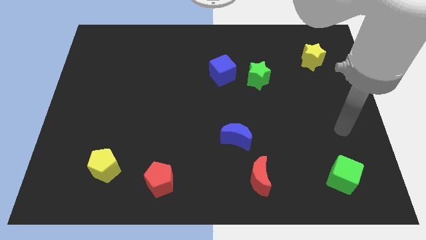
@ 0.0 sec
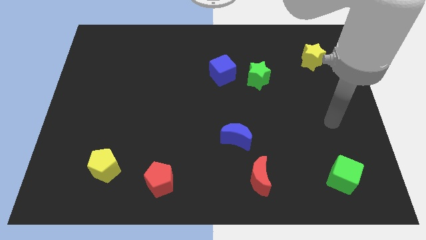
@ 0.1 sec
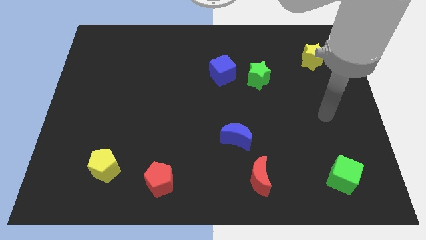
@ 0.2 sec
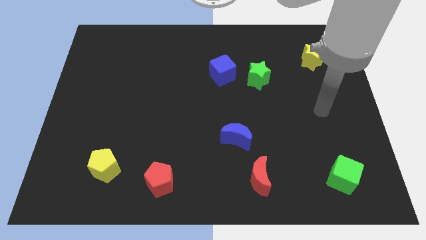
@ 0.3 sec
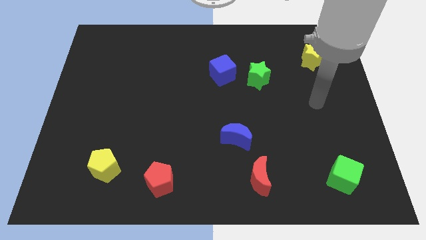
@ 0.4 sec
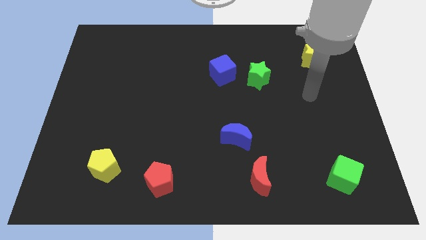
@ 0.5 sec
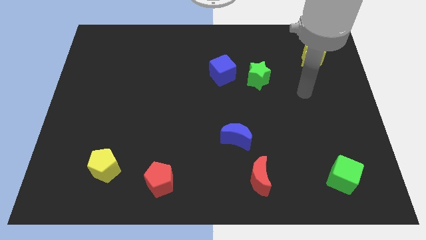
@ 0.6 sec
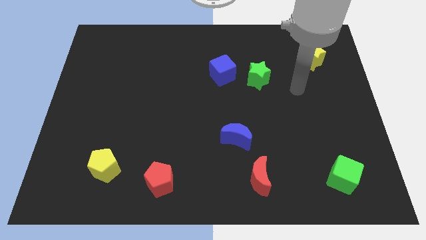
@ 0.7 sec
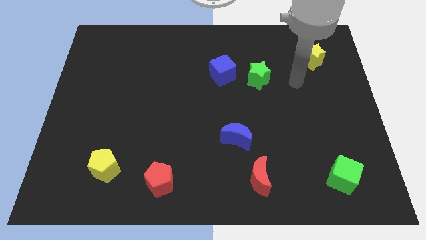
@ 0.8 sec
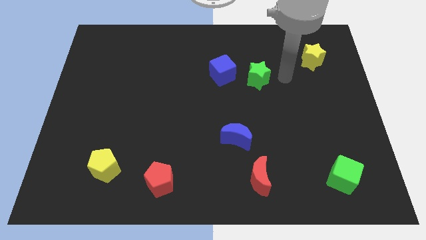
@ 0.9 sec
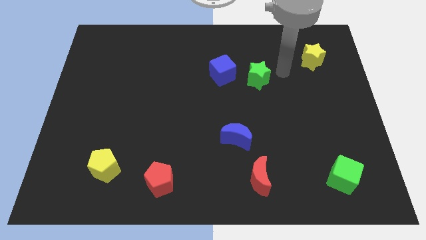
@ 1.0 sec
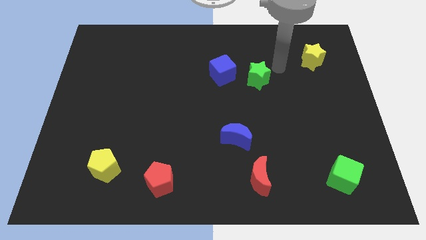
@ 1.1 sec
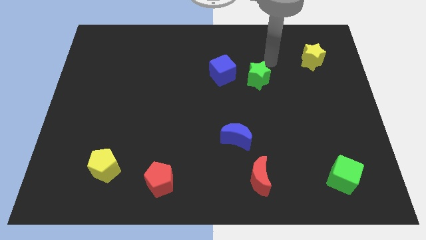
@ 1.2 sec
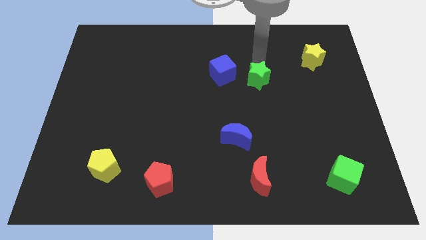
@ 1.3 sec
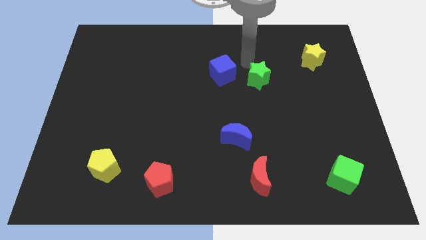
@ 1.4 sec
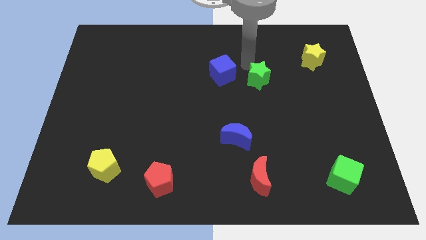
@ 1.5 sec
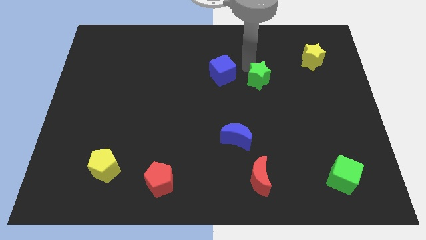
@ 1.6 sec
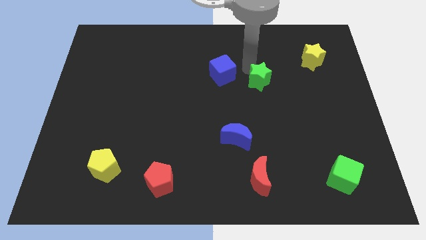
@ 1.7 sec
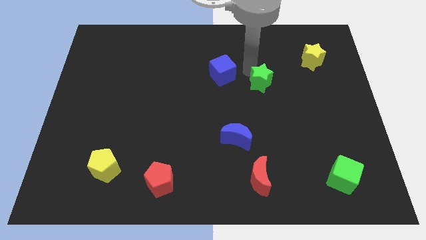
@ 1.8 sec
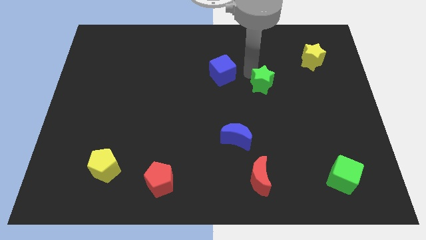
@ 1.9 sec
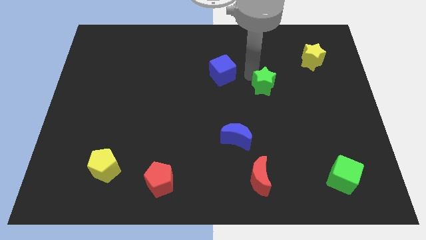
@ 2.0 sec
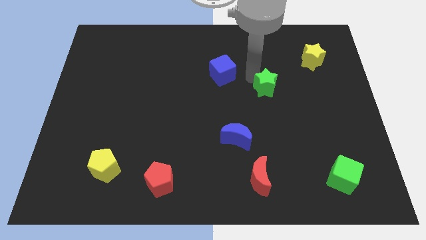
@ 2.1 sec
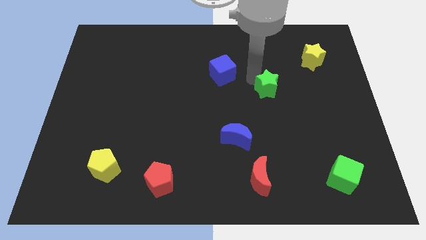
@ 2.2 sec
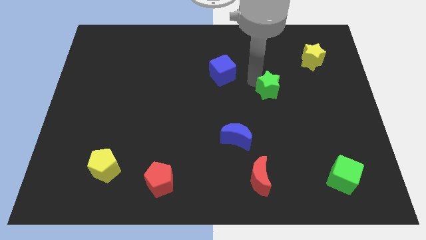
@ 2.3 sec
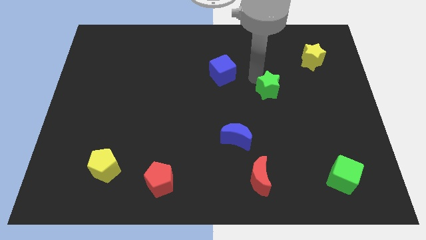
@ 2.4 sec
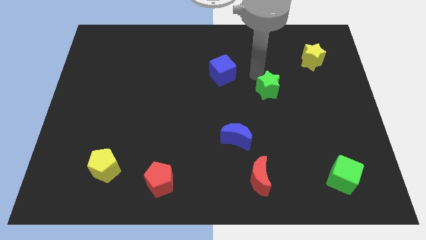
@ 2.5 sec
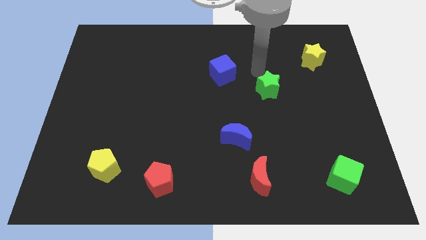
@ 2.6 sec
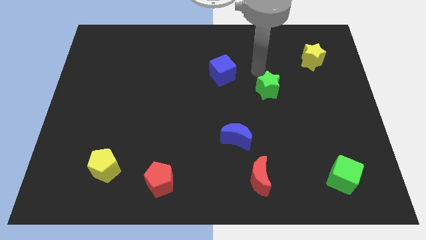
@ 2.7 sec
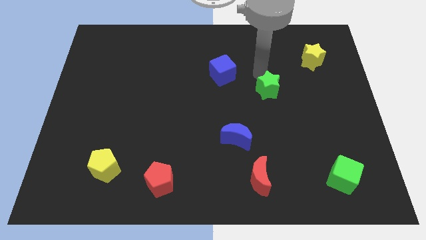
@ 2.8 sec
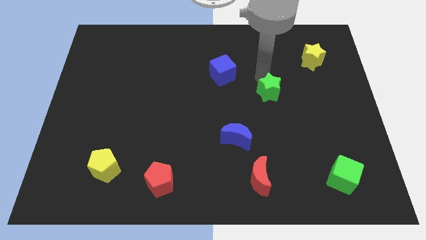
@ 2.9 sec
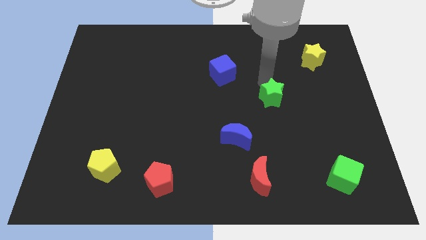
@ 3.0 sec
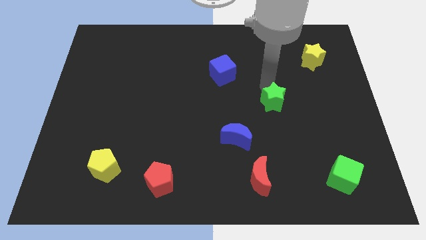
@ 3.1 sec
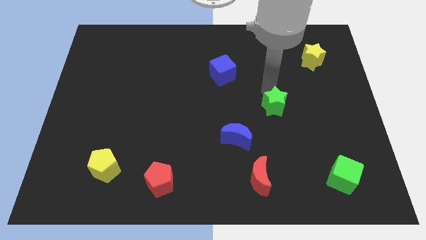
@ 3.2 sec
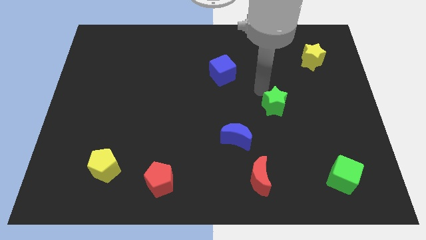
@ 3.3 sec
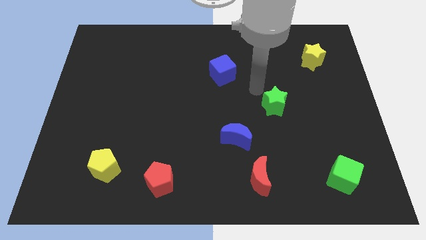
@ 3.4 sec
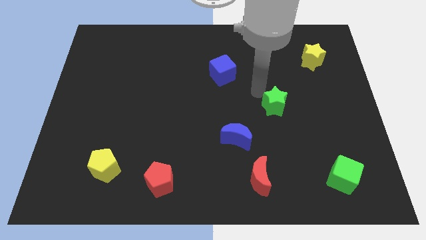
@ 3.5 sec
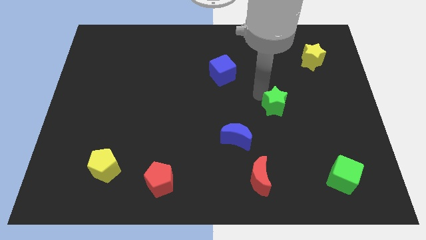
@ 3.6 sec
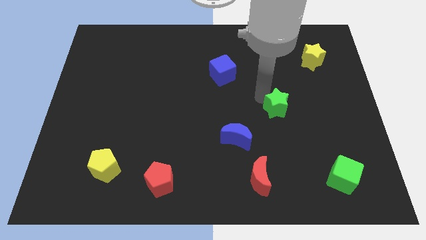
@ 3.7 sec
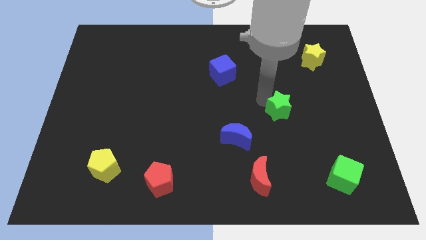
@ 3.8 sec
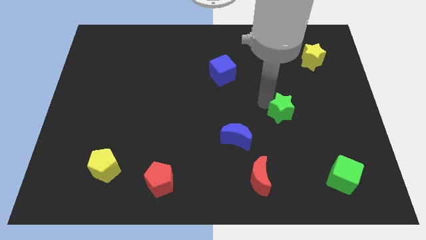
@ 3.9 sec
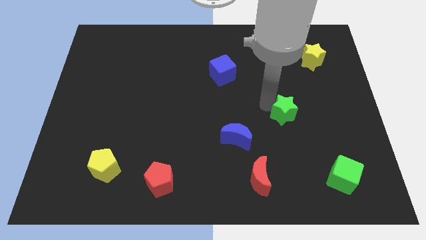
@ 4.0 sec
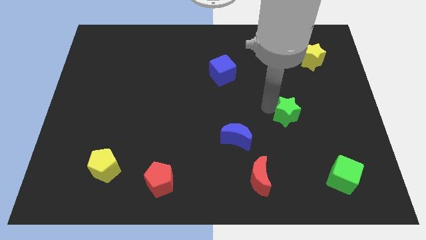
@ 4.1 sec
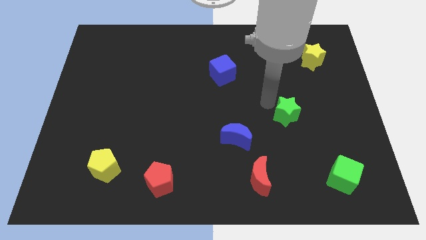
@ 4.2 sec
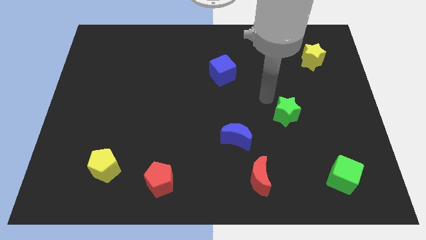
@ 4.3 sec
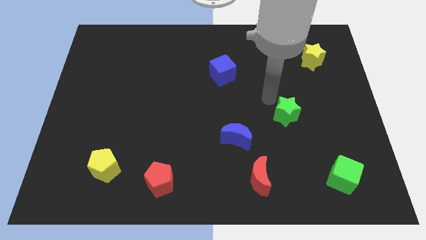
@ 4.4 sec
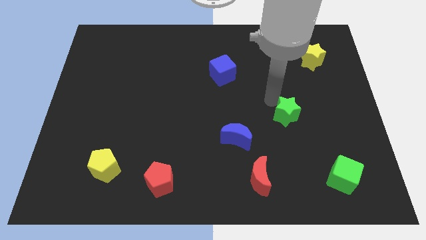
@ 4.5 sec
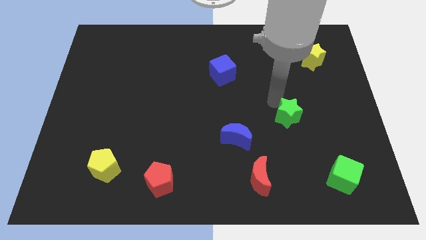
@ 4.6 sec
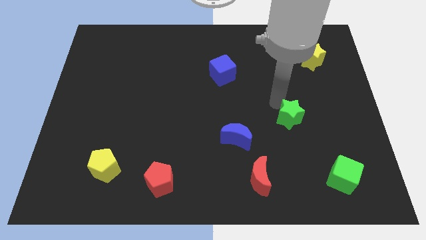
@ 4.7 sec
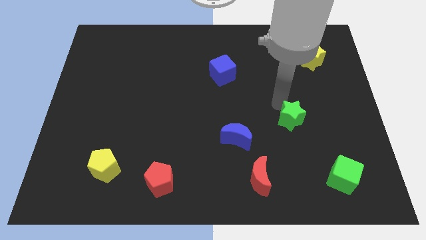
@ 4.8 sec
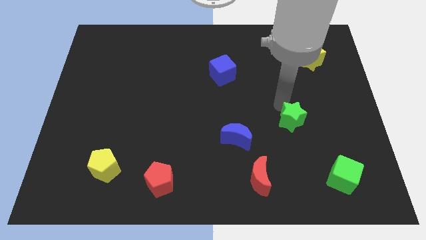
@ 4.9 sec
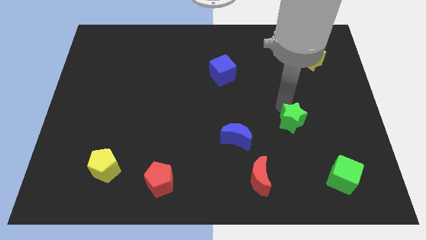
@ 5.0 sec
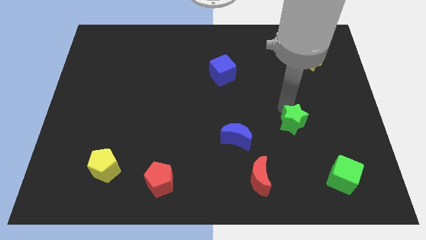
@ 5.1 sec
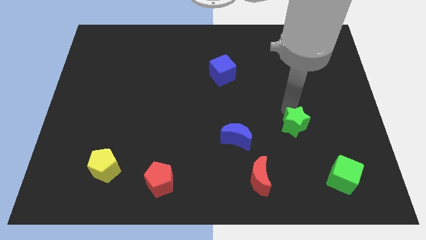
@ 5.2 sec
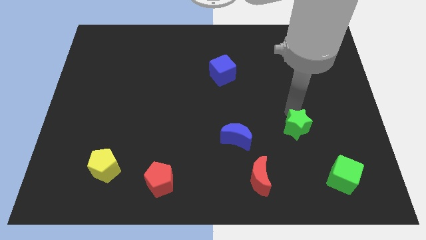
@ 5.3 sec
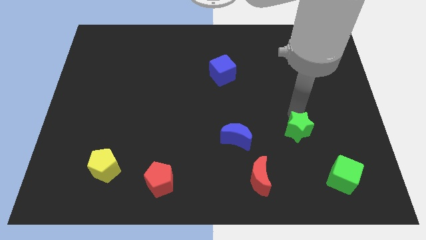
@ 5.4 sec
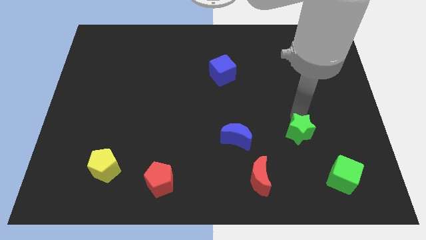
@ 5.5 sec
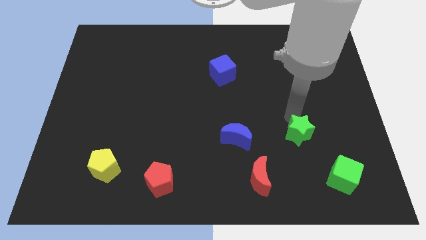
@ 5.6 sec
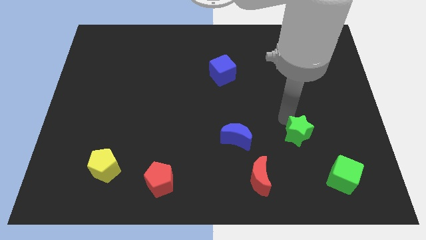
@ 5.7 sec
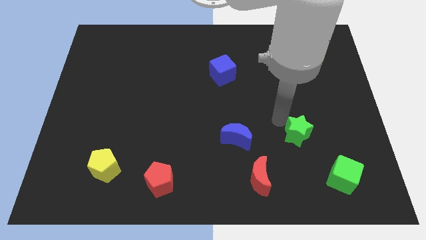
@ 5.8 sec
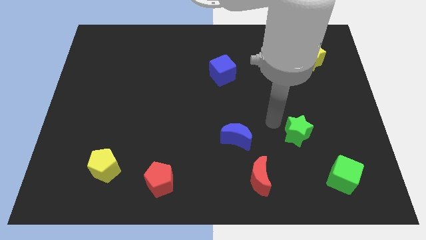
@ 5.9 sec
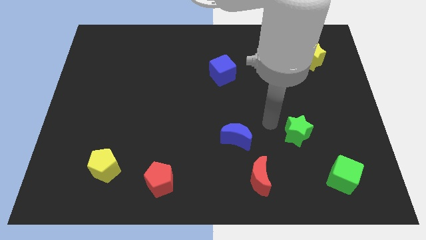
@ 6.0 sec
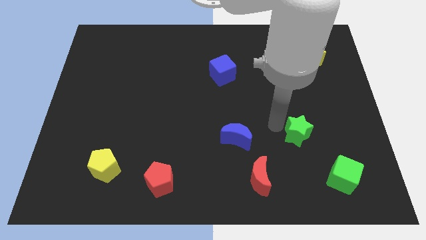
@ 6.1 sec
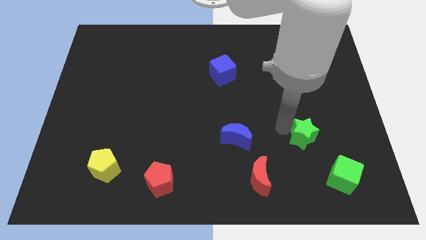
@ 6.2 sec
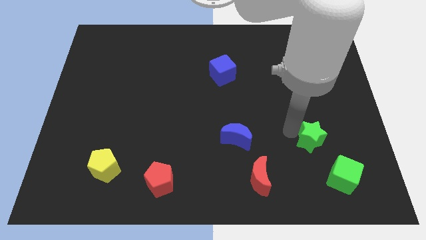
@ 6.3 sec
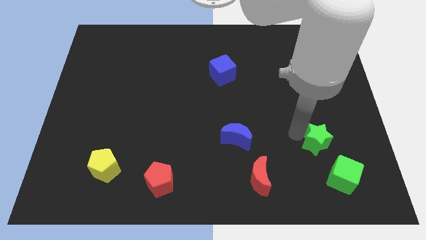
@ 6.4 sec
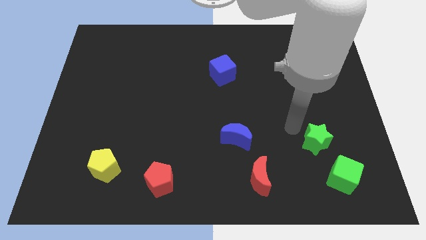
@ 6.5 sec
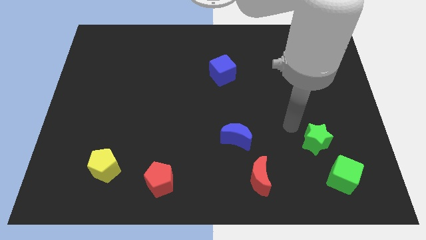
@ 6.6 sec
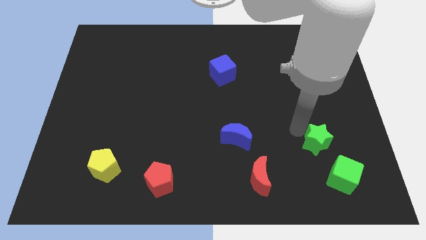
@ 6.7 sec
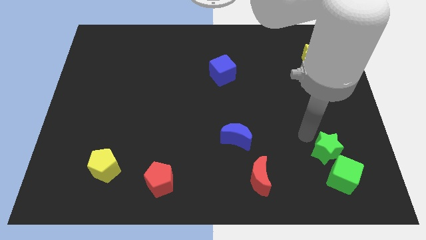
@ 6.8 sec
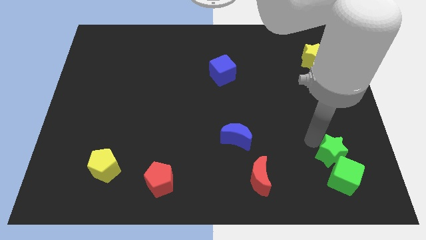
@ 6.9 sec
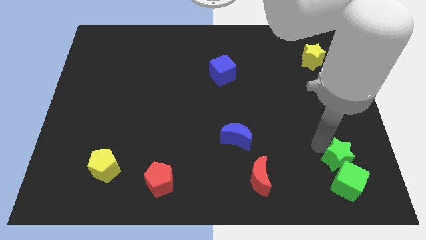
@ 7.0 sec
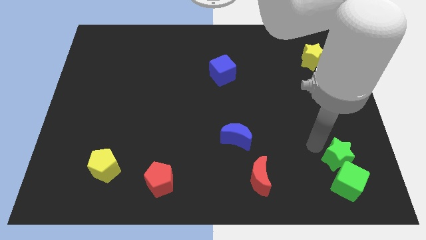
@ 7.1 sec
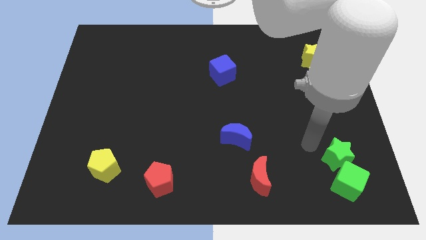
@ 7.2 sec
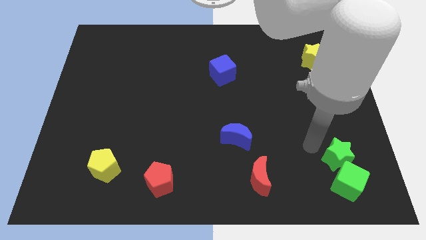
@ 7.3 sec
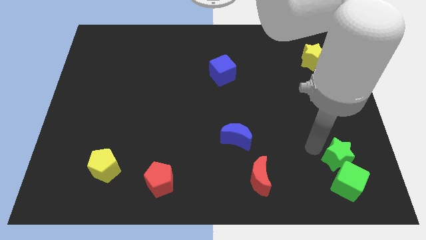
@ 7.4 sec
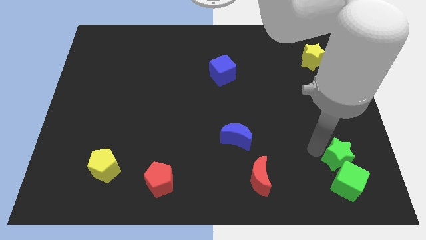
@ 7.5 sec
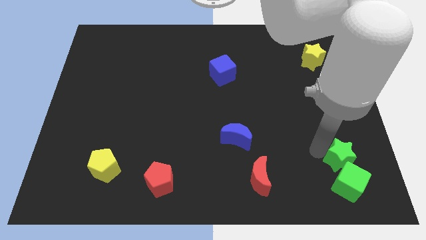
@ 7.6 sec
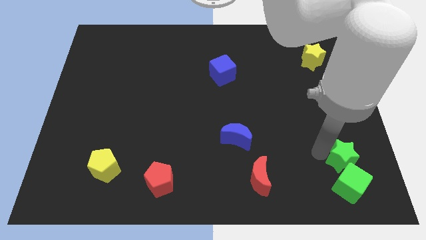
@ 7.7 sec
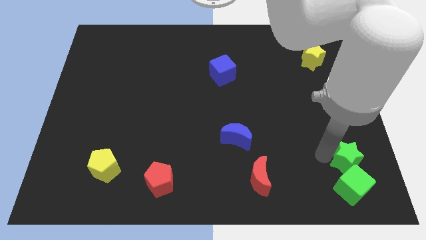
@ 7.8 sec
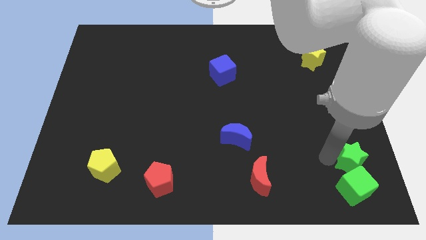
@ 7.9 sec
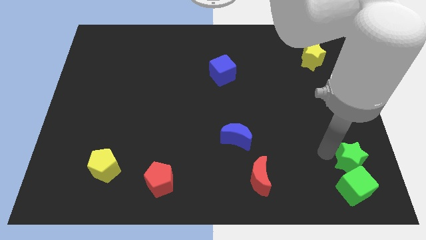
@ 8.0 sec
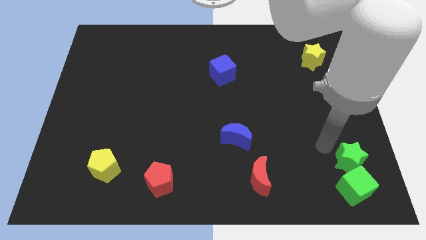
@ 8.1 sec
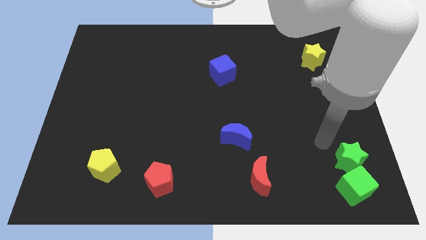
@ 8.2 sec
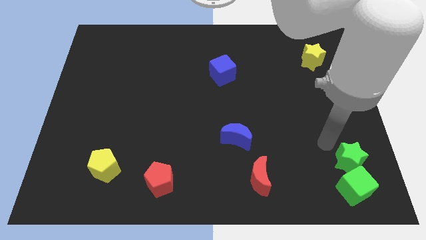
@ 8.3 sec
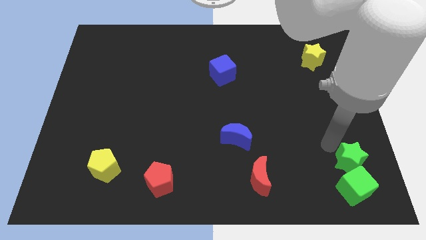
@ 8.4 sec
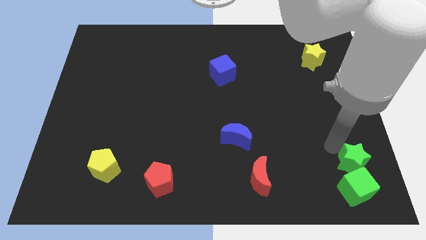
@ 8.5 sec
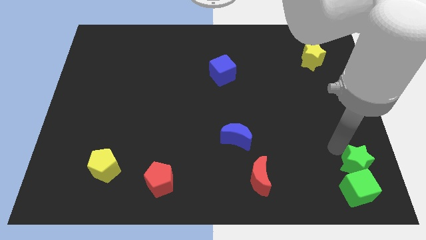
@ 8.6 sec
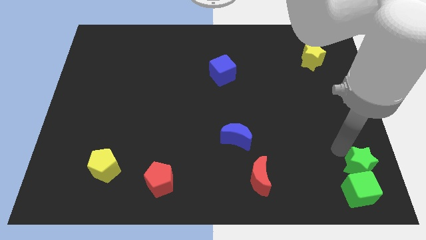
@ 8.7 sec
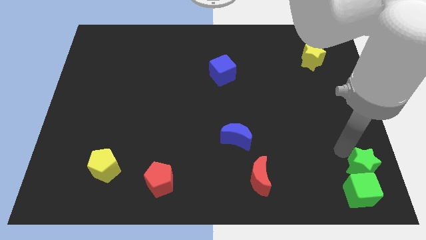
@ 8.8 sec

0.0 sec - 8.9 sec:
move the green star to the bottom right
